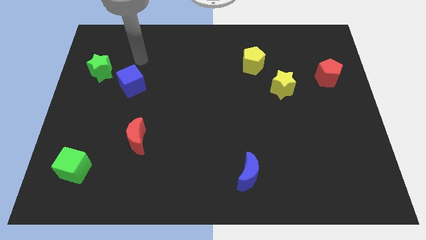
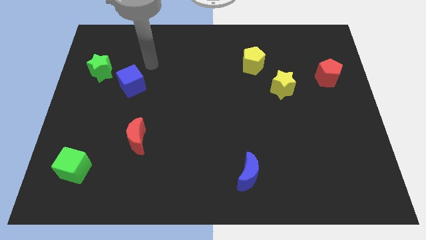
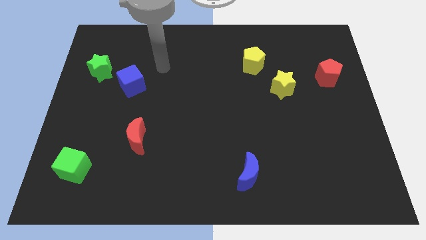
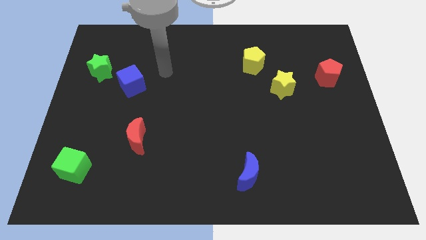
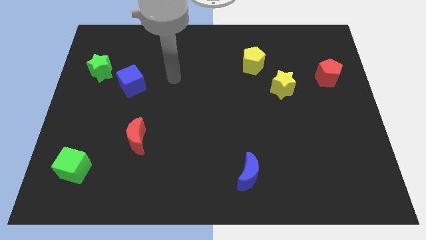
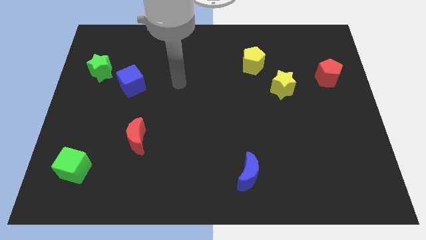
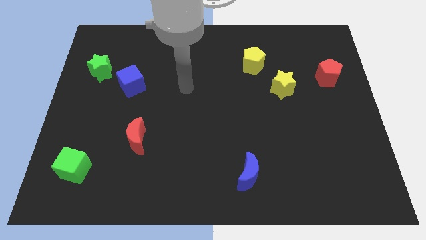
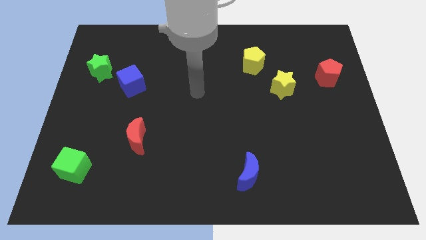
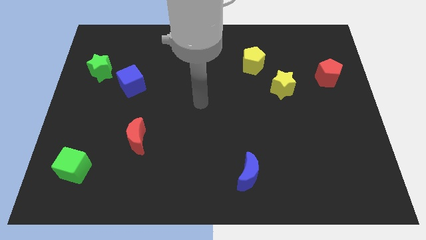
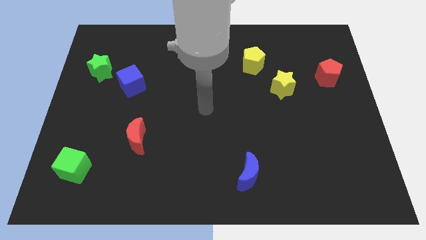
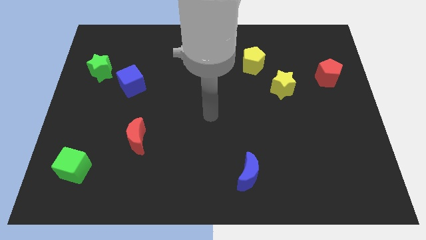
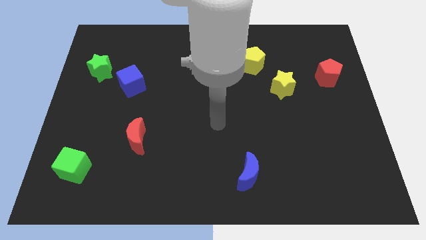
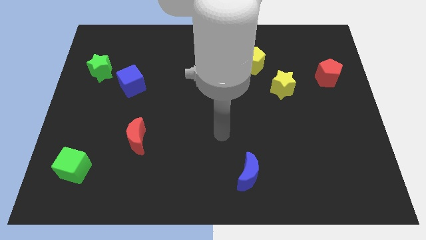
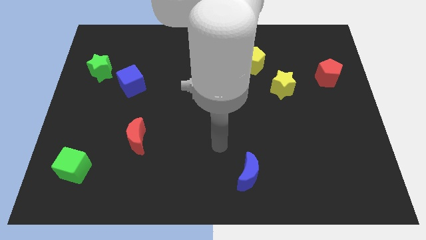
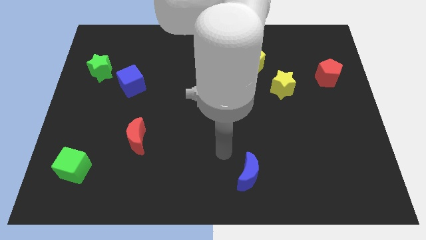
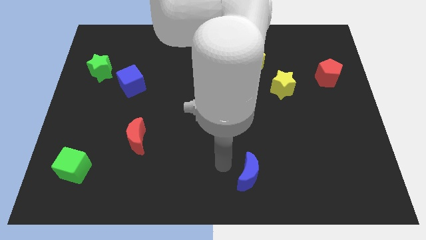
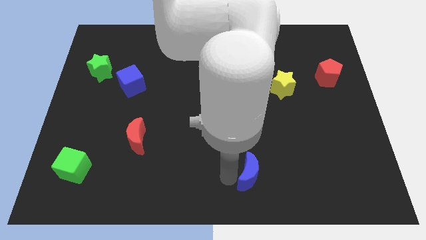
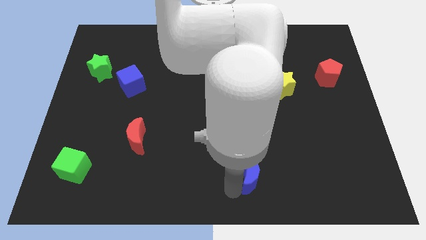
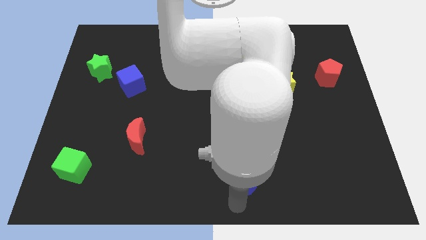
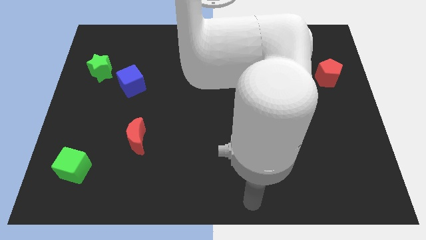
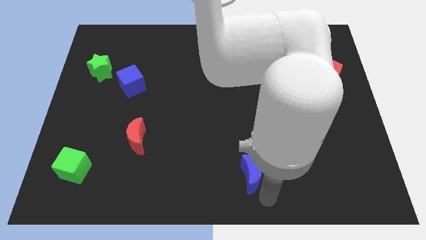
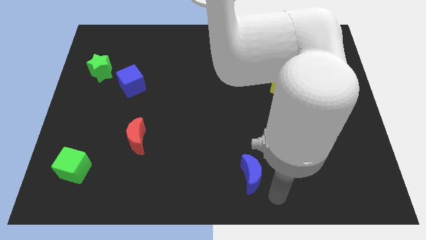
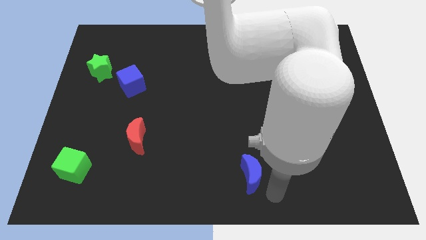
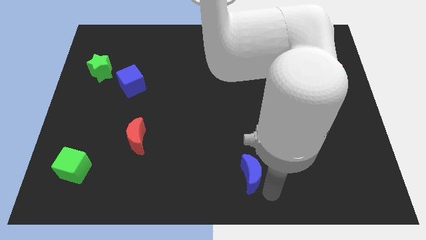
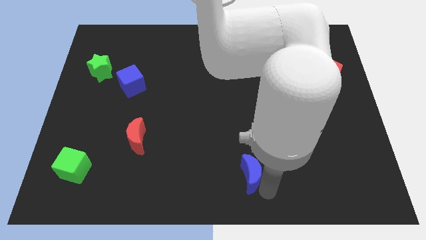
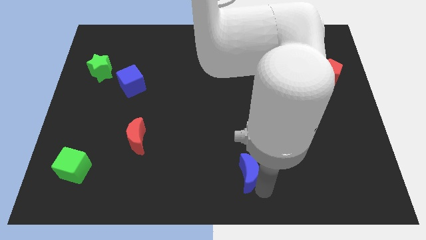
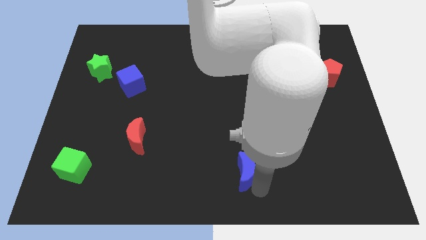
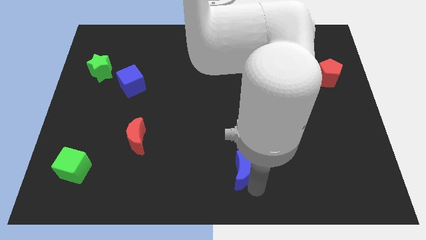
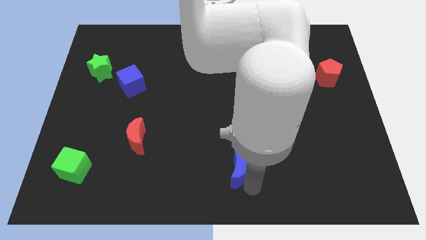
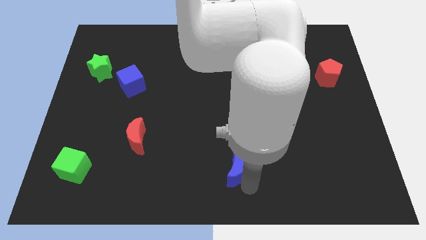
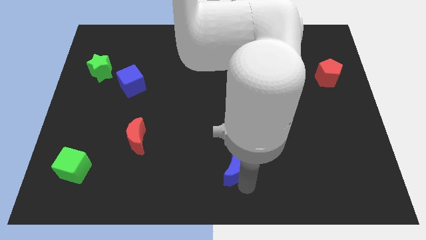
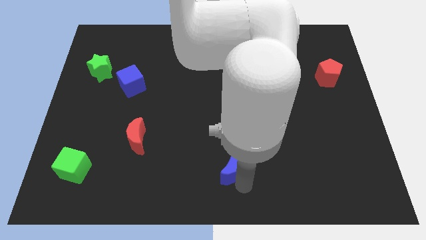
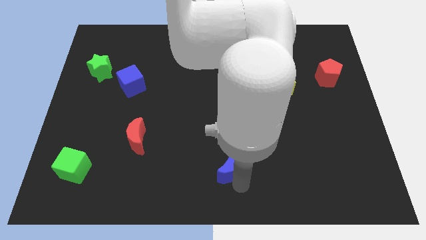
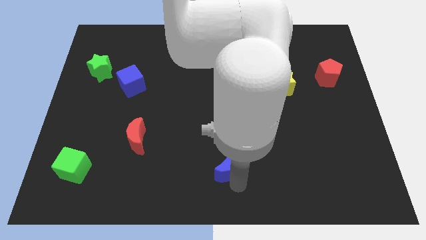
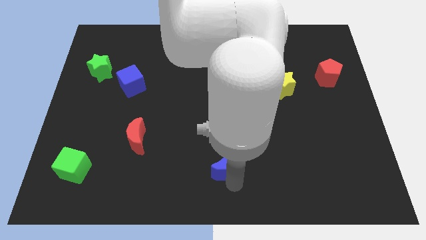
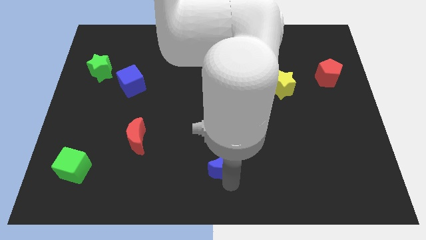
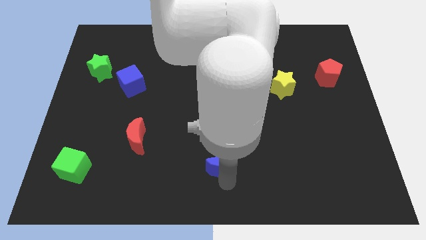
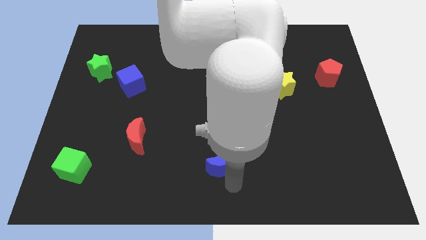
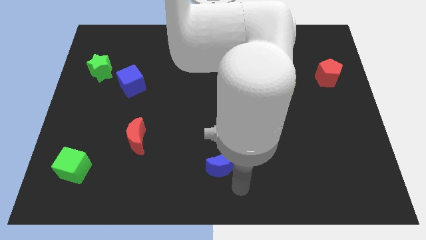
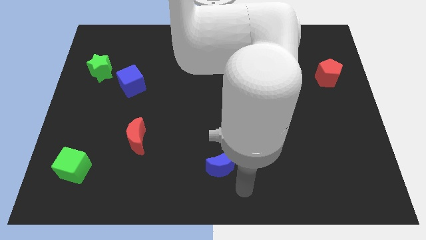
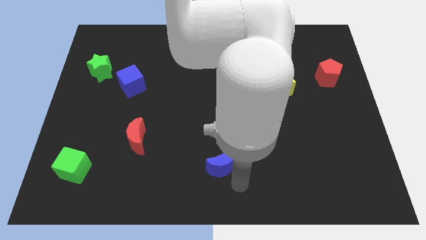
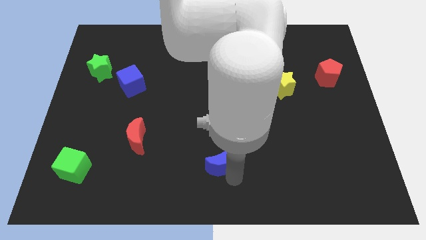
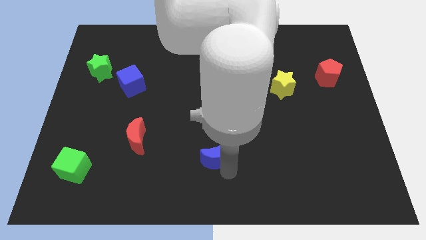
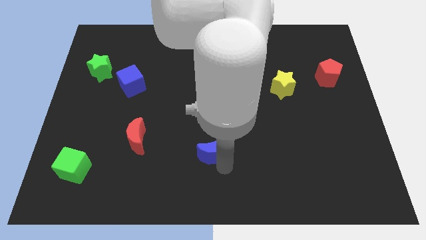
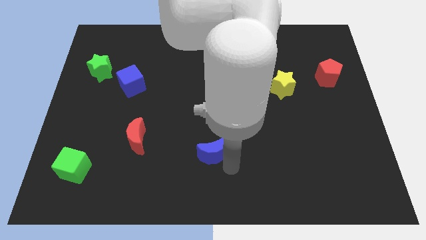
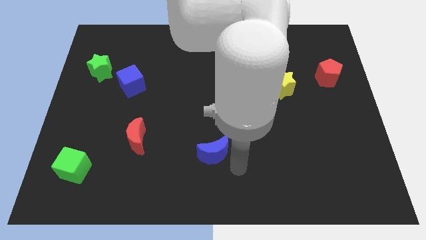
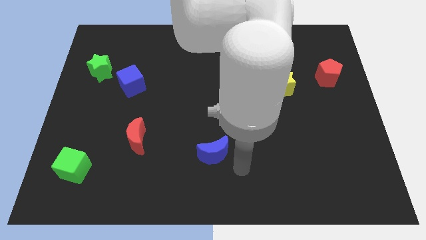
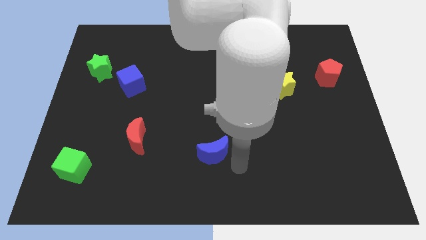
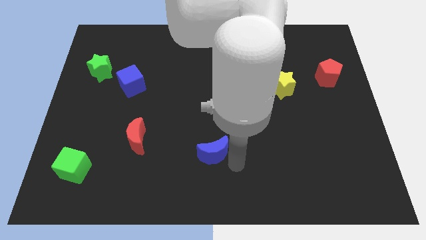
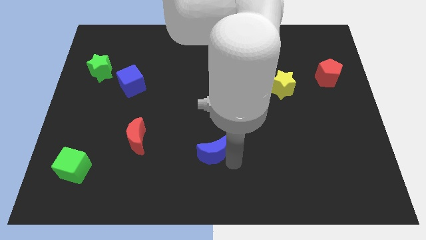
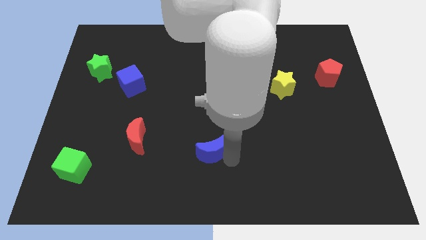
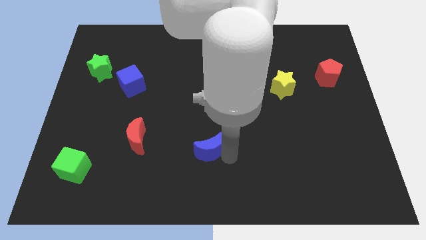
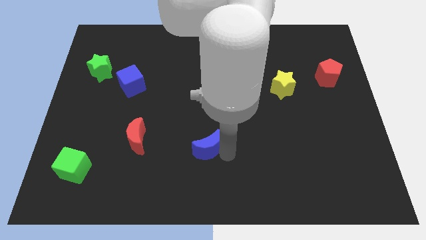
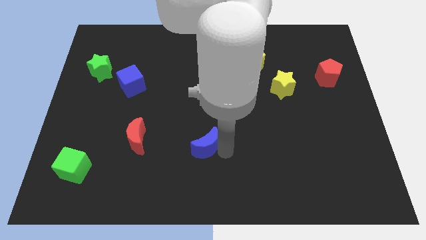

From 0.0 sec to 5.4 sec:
push the blue moon to the right side of the red moon

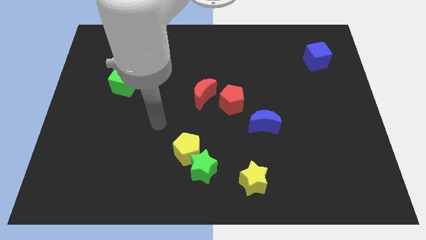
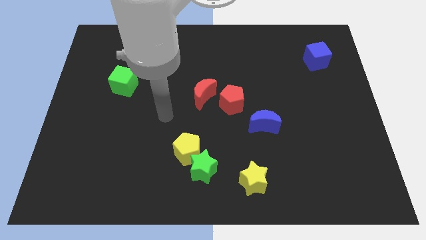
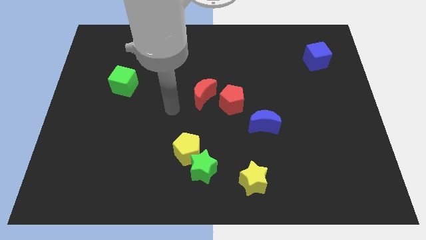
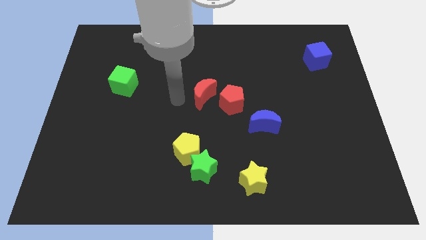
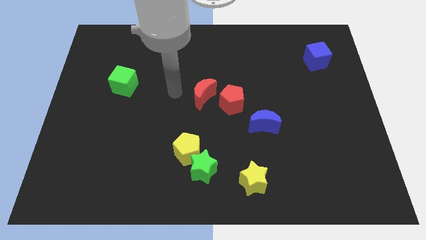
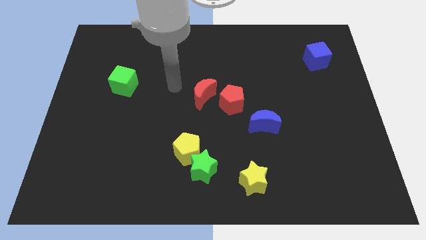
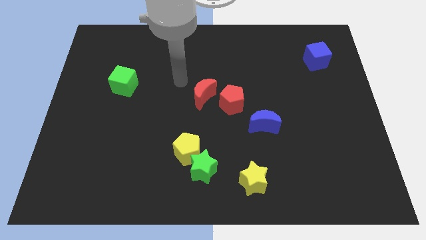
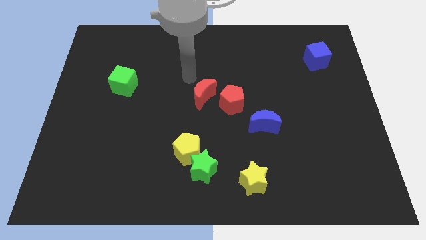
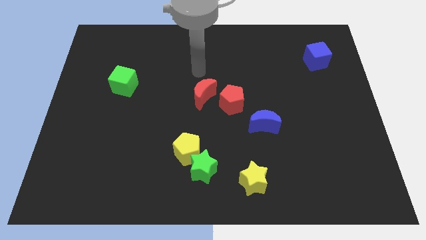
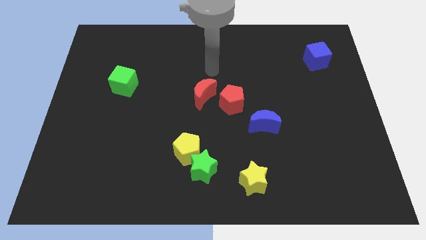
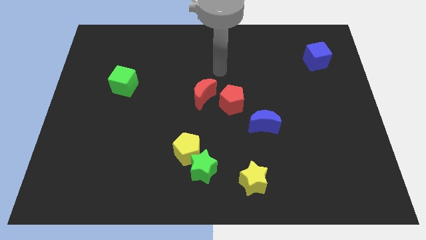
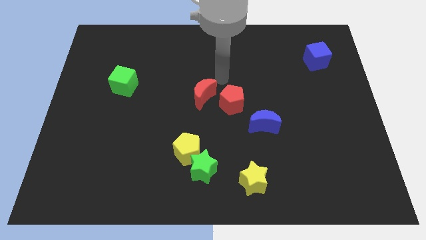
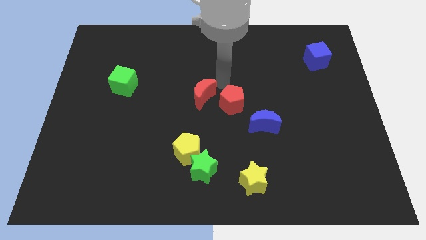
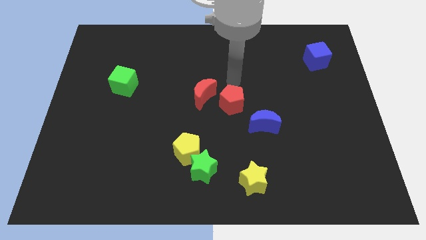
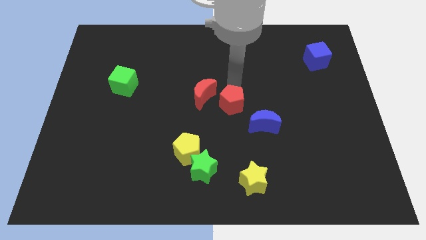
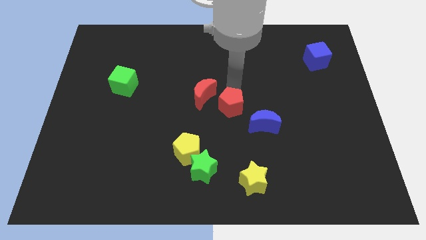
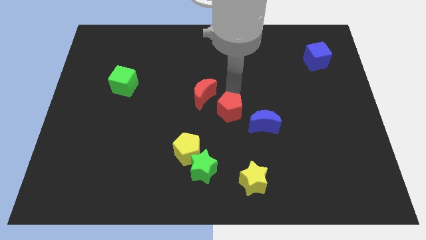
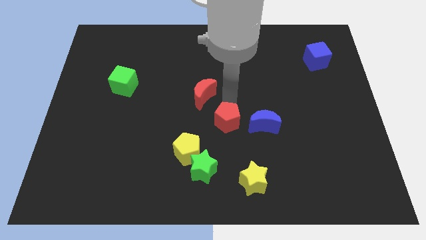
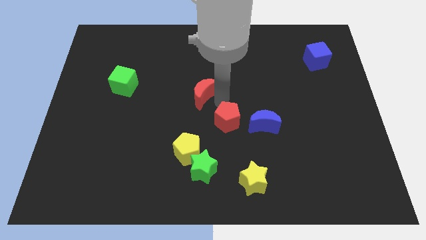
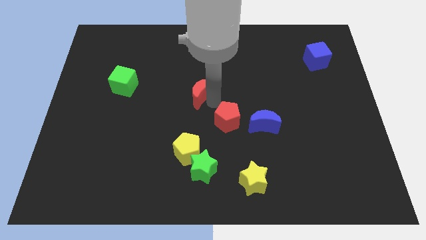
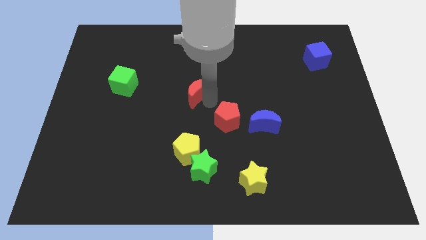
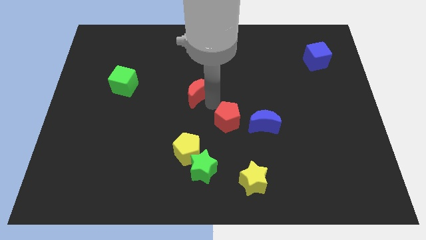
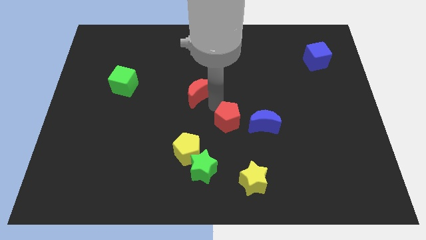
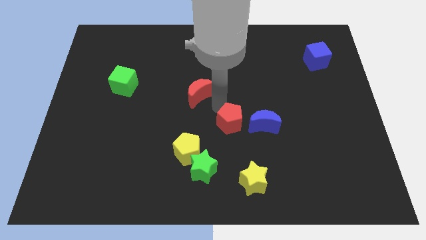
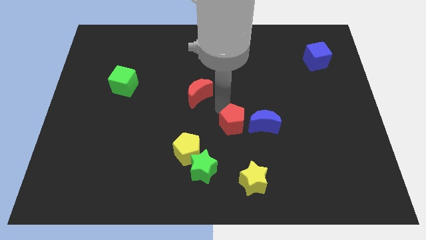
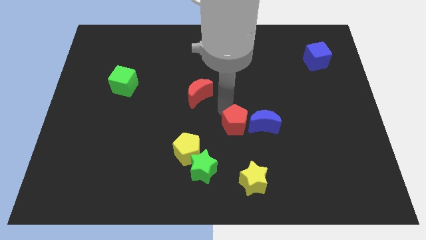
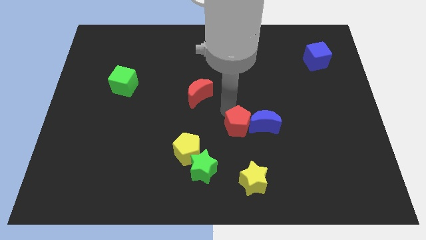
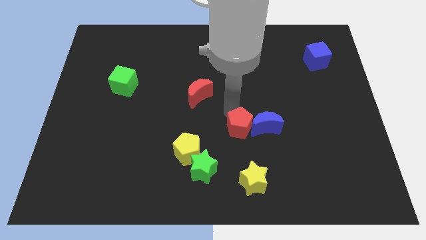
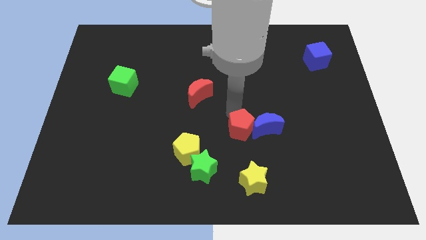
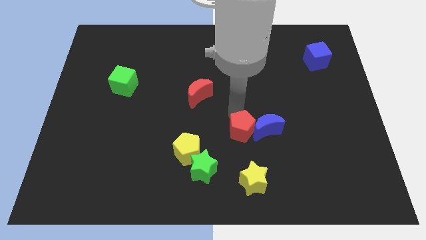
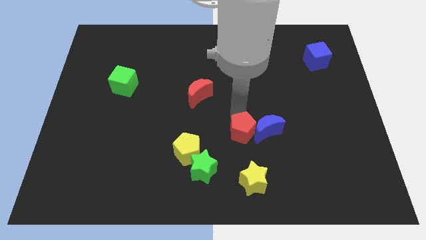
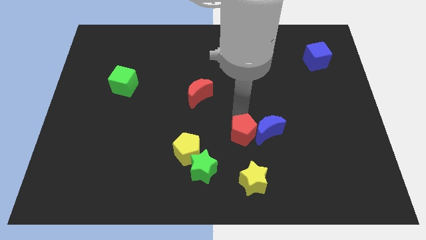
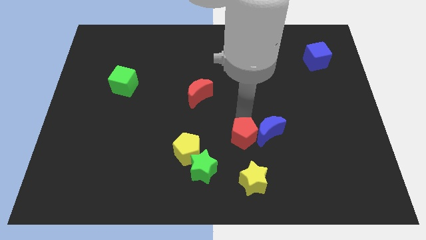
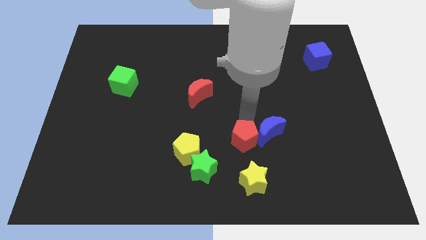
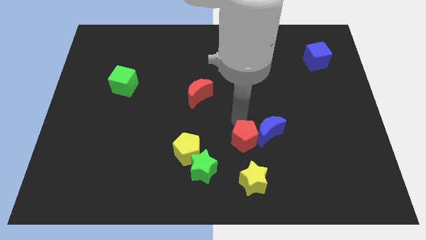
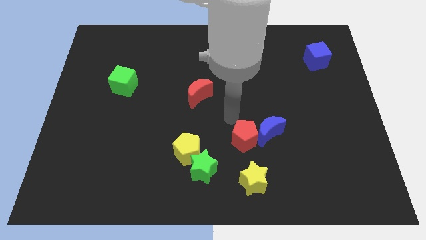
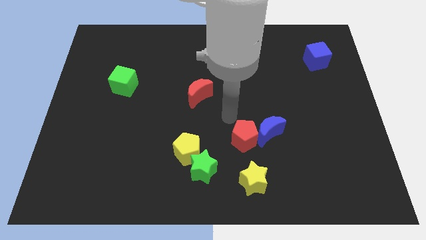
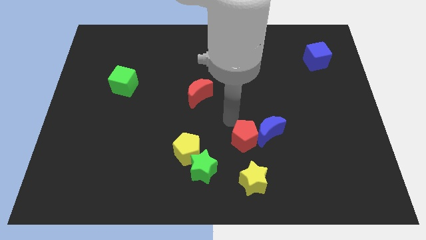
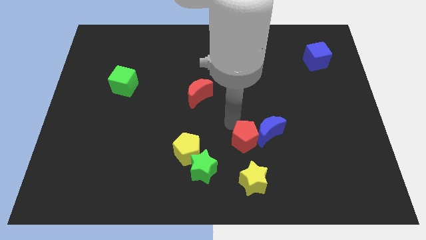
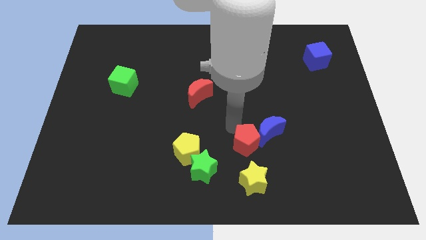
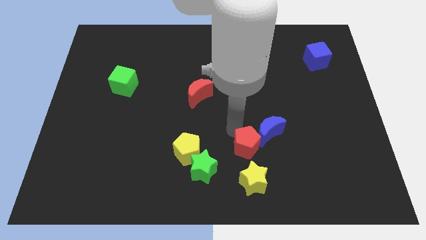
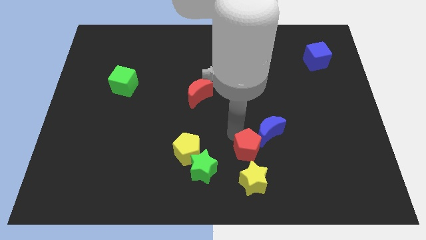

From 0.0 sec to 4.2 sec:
slide the red pentagon to the bottom side of the blue moon
